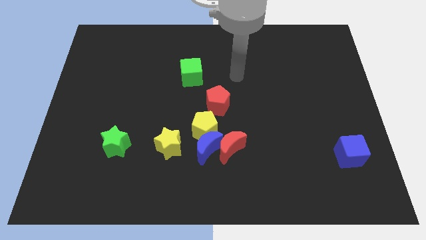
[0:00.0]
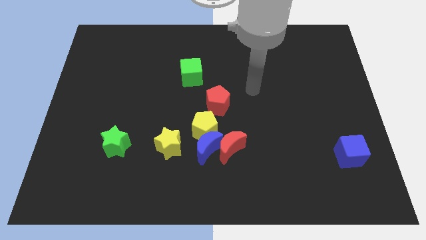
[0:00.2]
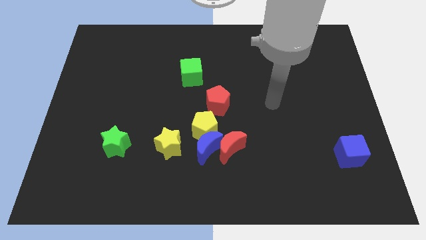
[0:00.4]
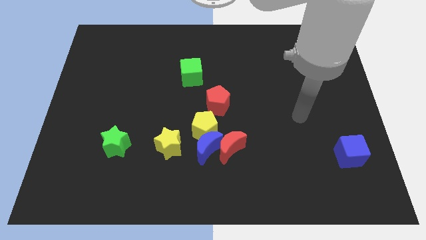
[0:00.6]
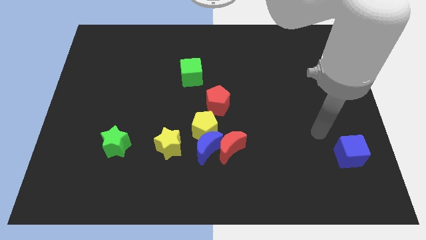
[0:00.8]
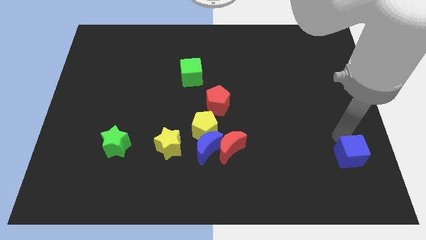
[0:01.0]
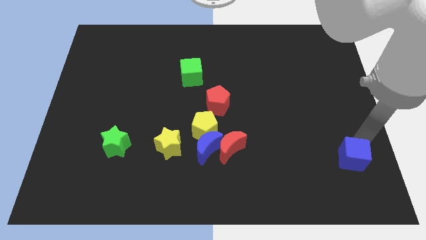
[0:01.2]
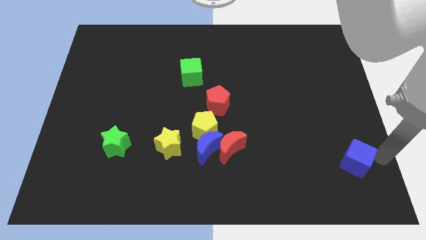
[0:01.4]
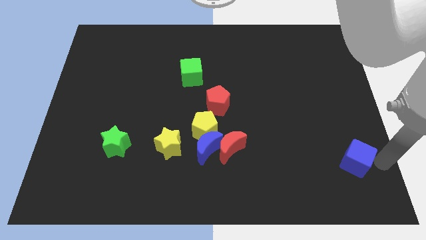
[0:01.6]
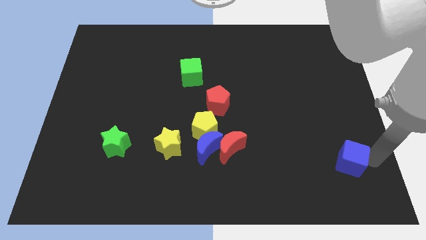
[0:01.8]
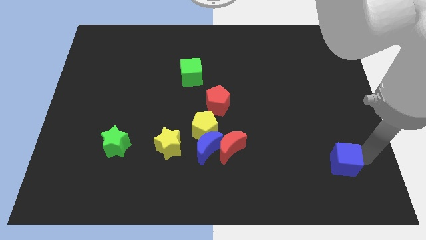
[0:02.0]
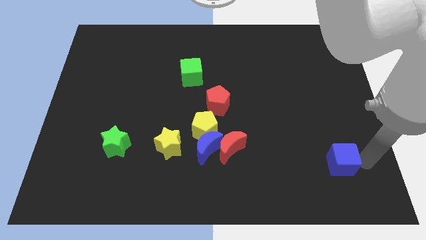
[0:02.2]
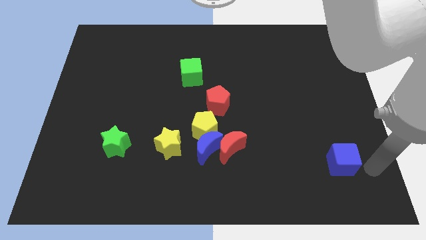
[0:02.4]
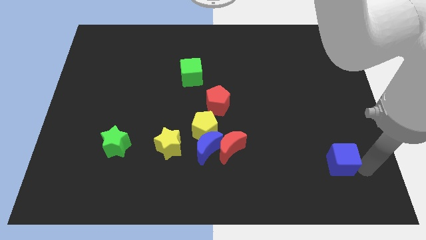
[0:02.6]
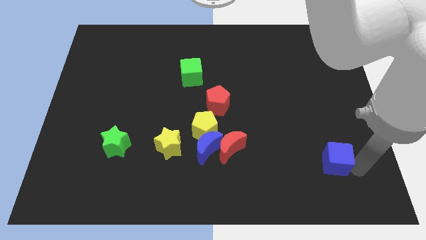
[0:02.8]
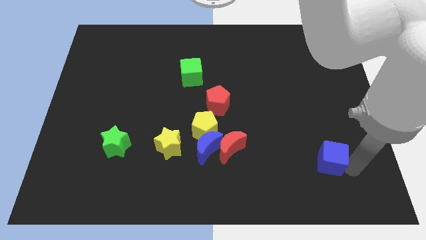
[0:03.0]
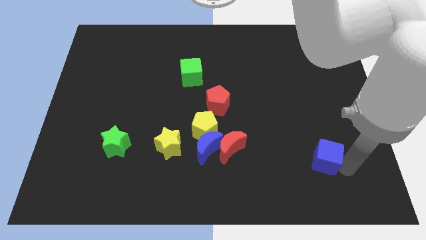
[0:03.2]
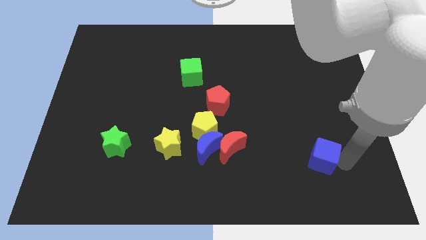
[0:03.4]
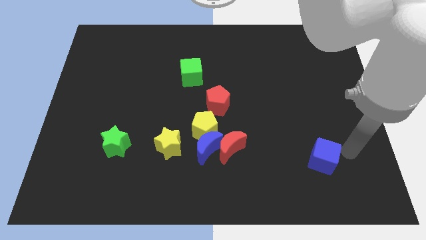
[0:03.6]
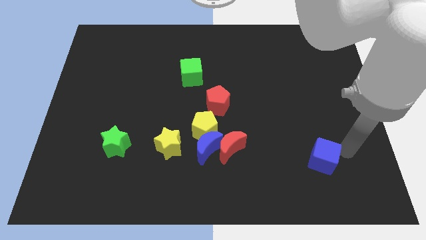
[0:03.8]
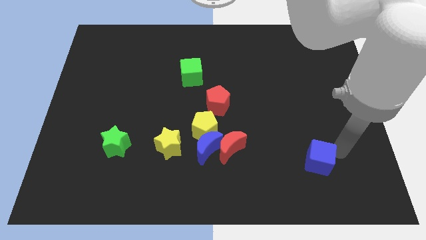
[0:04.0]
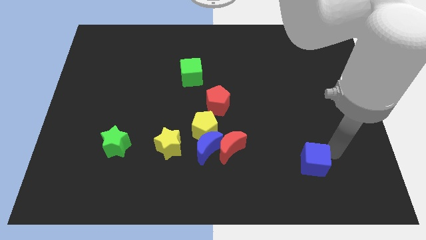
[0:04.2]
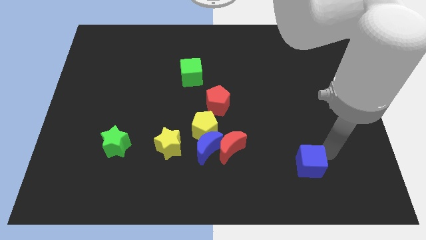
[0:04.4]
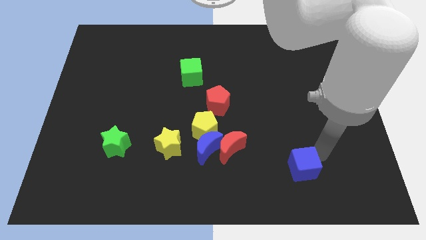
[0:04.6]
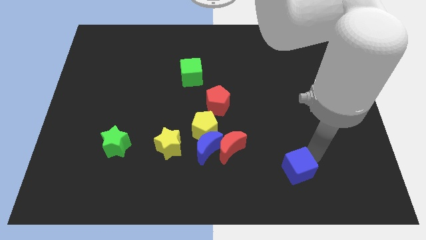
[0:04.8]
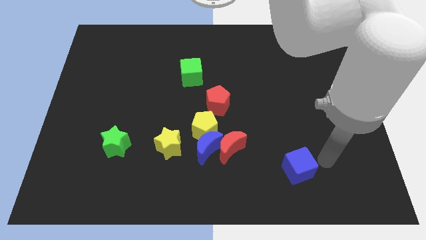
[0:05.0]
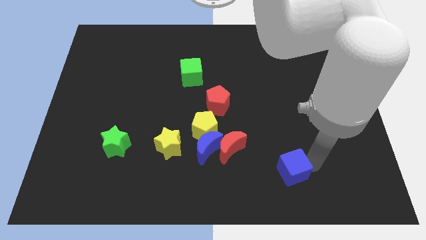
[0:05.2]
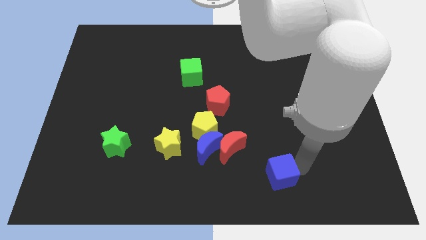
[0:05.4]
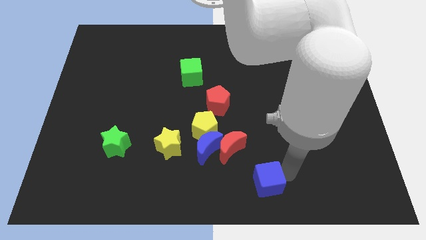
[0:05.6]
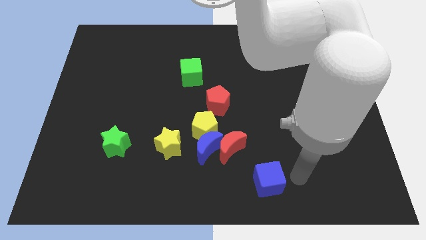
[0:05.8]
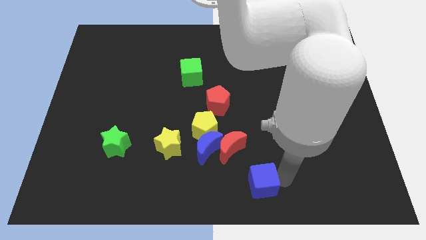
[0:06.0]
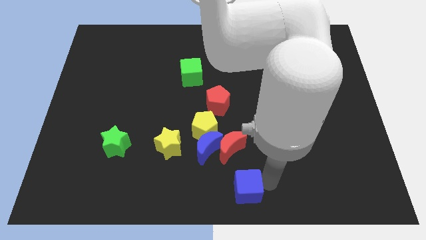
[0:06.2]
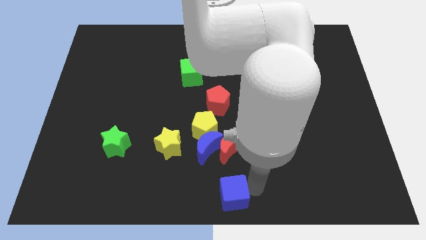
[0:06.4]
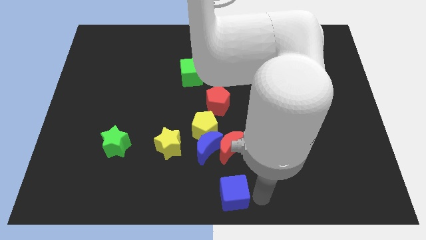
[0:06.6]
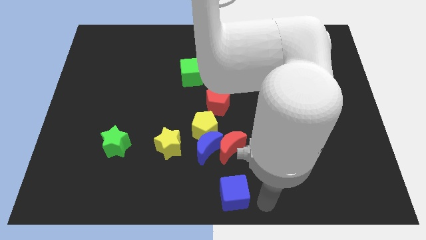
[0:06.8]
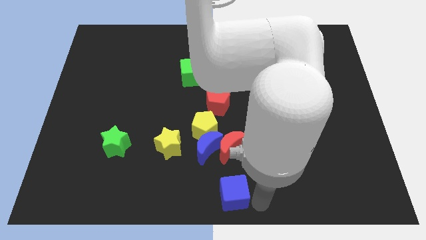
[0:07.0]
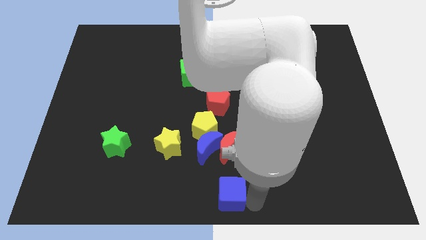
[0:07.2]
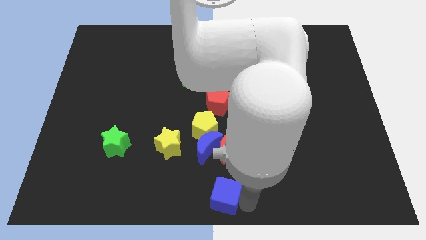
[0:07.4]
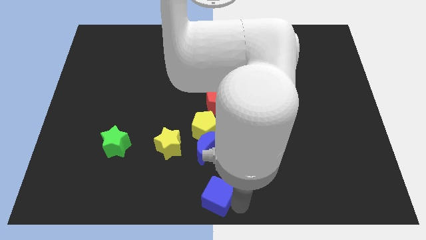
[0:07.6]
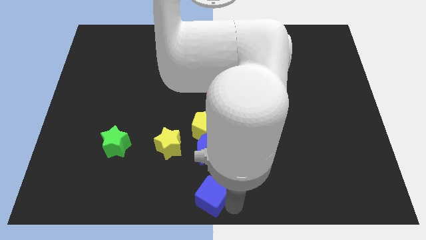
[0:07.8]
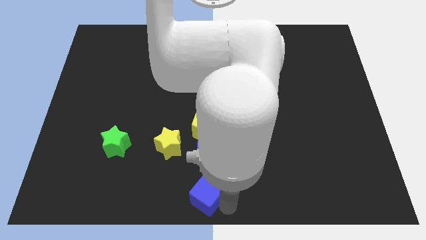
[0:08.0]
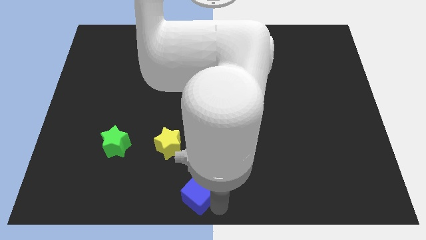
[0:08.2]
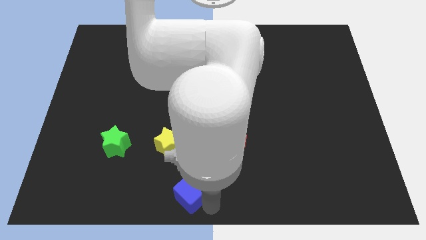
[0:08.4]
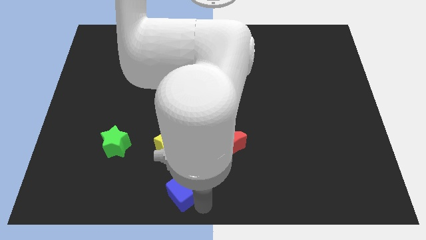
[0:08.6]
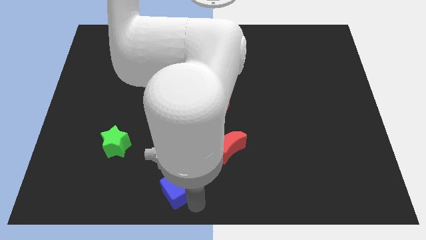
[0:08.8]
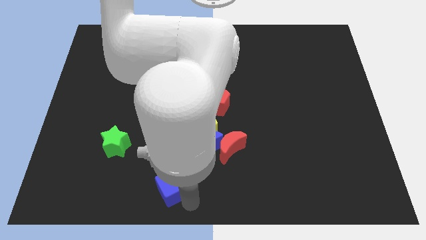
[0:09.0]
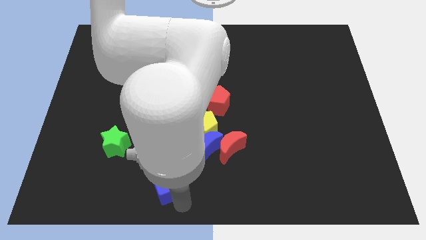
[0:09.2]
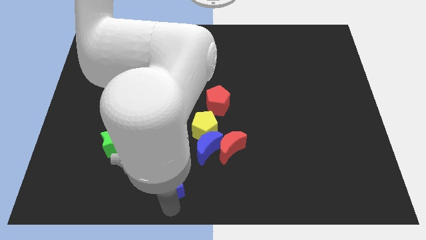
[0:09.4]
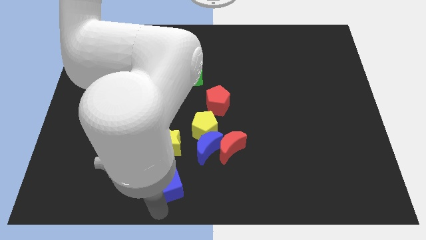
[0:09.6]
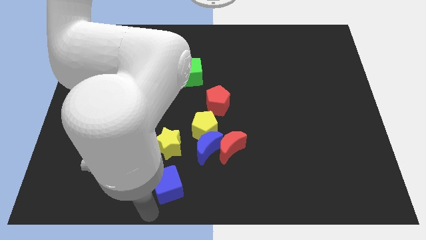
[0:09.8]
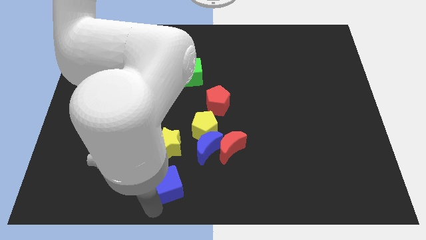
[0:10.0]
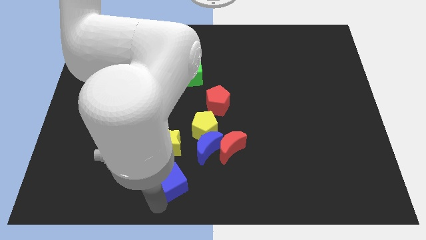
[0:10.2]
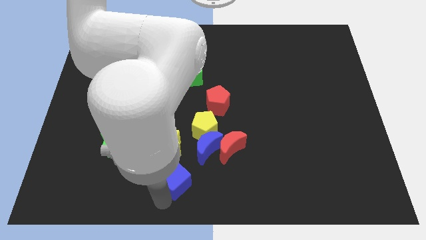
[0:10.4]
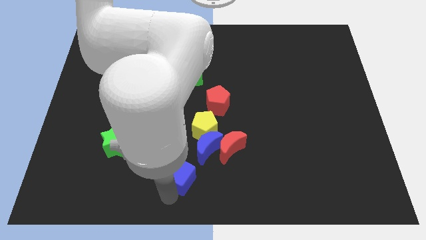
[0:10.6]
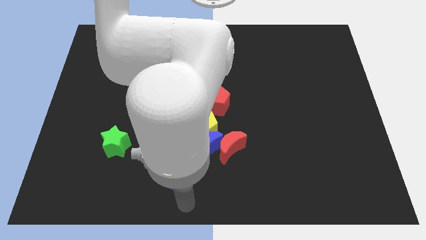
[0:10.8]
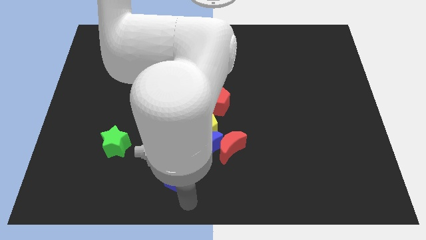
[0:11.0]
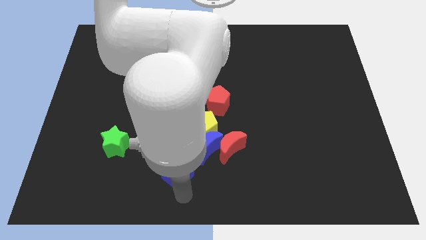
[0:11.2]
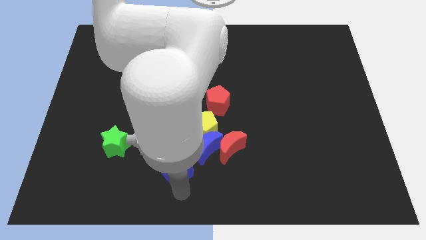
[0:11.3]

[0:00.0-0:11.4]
put the blue cube next to the yellow star

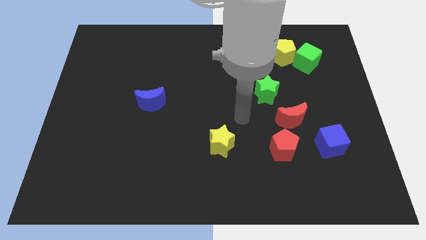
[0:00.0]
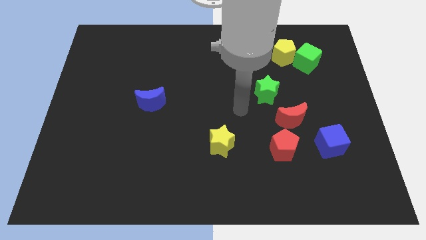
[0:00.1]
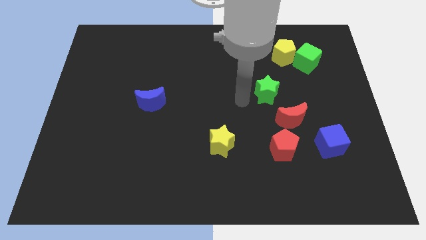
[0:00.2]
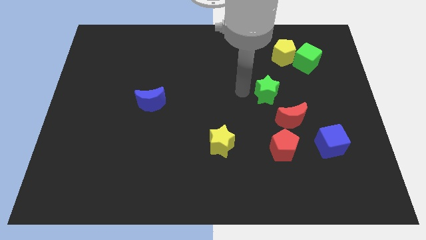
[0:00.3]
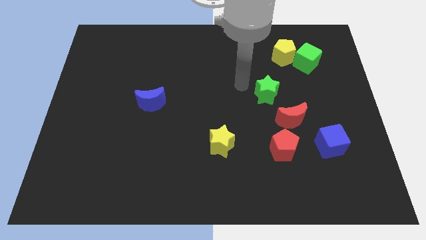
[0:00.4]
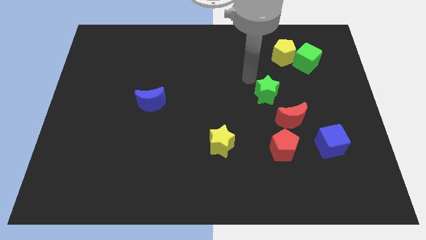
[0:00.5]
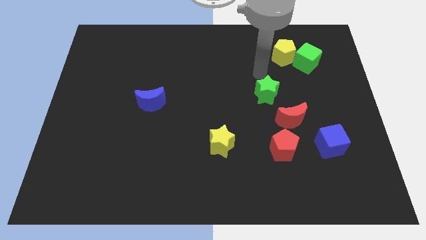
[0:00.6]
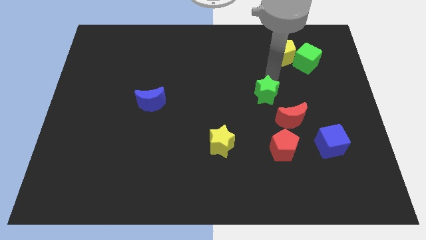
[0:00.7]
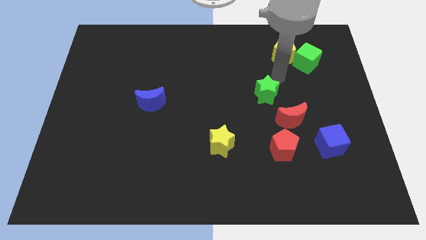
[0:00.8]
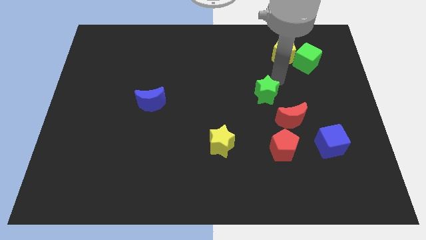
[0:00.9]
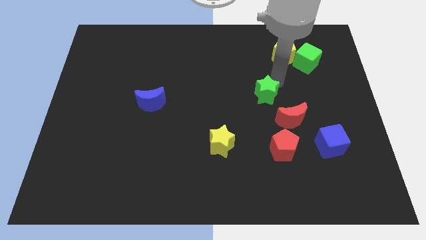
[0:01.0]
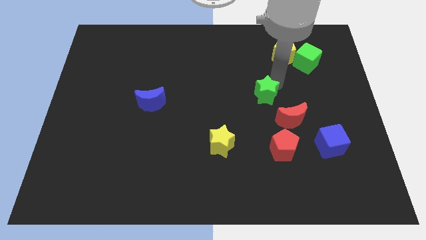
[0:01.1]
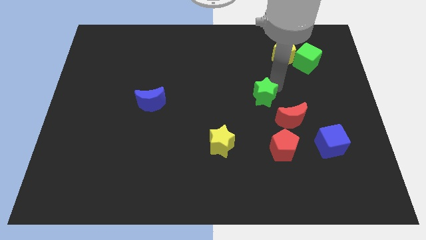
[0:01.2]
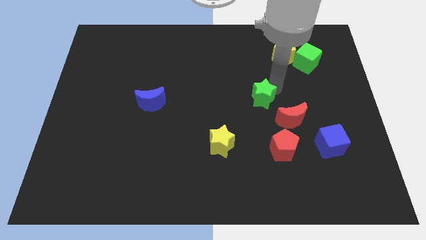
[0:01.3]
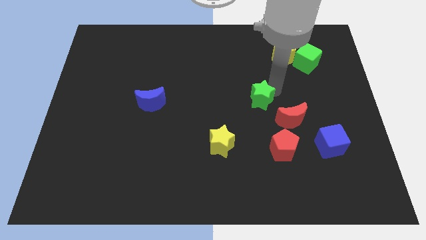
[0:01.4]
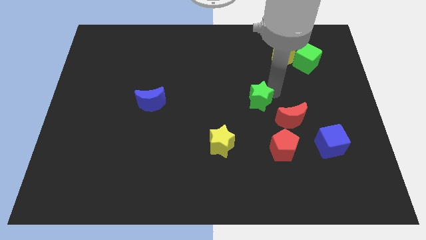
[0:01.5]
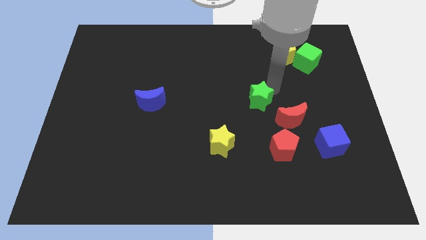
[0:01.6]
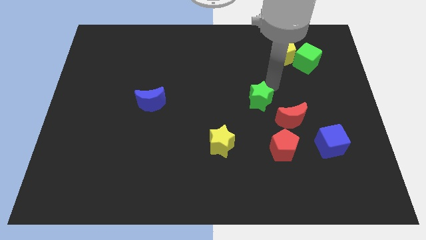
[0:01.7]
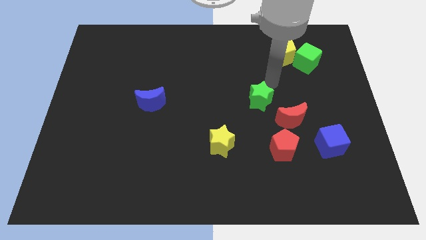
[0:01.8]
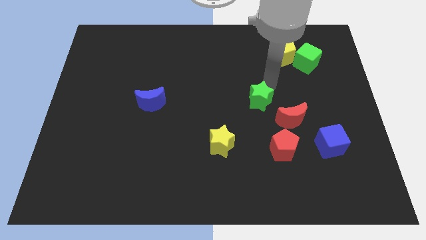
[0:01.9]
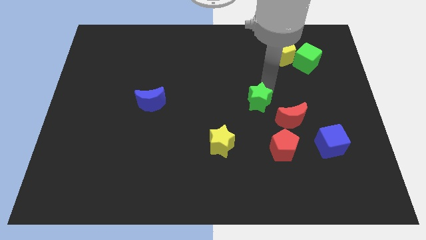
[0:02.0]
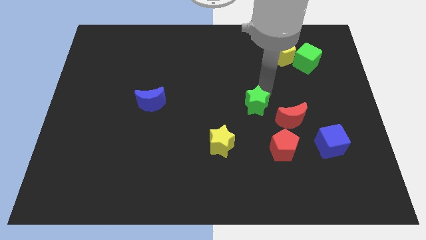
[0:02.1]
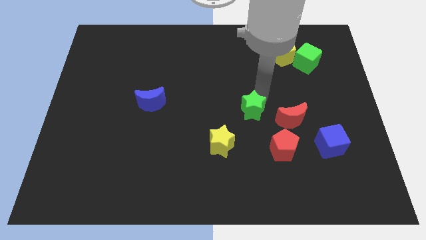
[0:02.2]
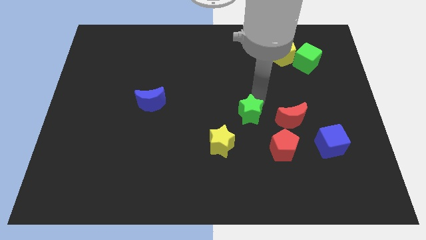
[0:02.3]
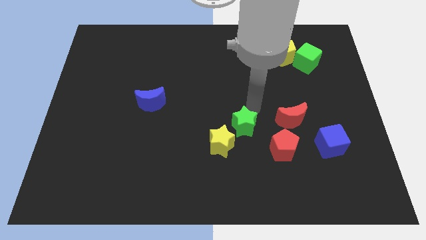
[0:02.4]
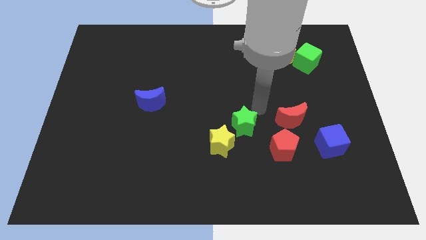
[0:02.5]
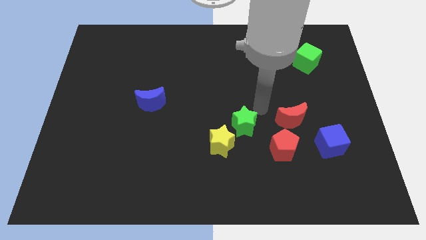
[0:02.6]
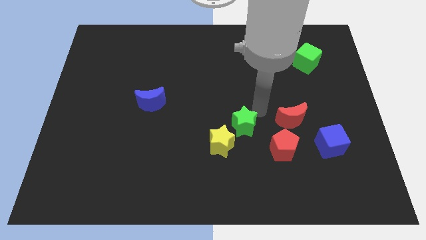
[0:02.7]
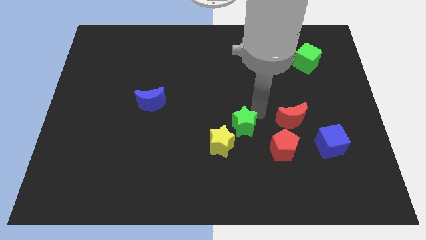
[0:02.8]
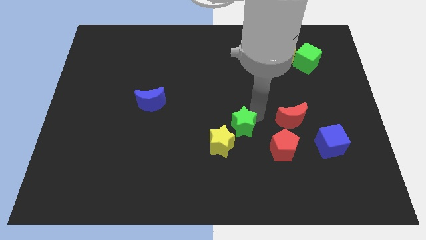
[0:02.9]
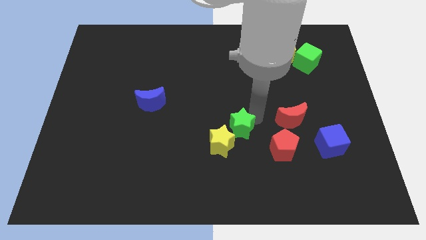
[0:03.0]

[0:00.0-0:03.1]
push the green star towards the yellow star
